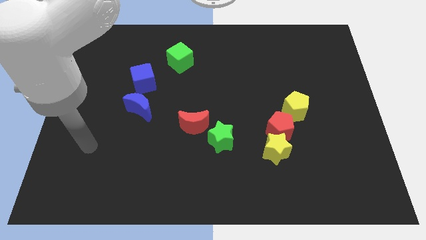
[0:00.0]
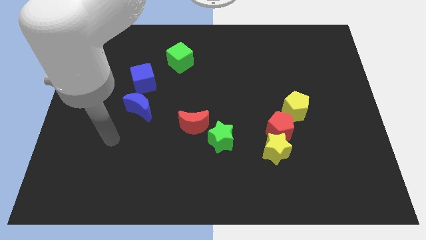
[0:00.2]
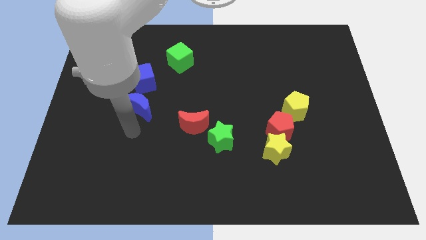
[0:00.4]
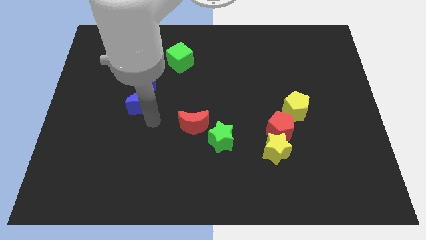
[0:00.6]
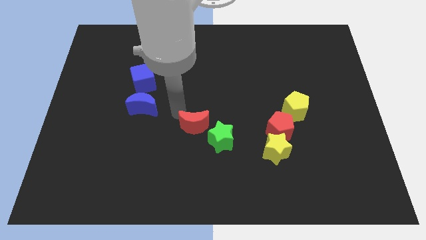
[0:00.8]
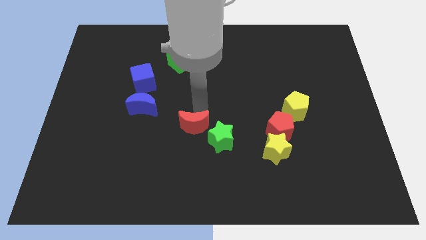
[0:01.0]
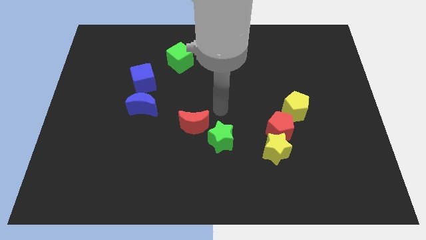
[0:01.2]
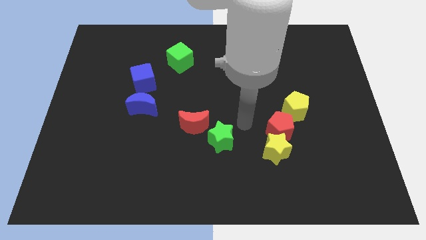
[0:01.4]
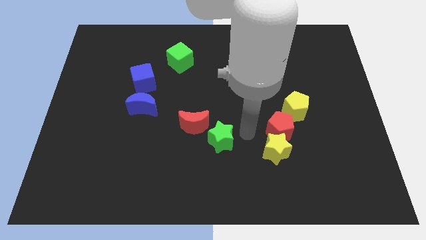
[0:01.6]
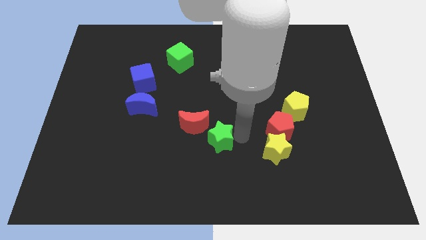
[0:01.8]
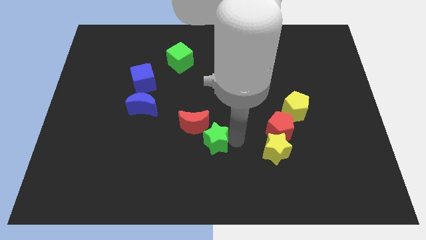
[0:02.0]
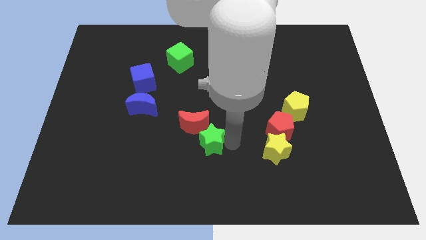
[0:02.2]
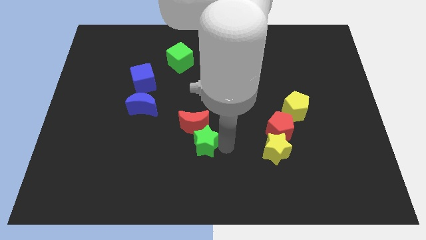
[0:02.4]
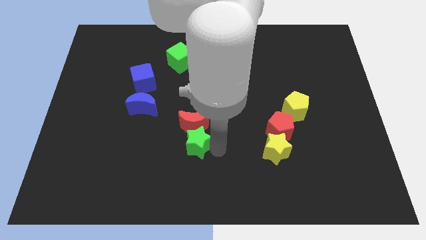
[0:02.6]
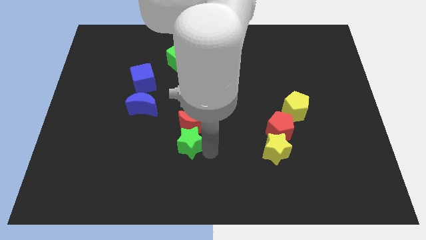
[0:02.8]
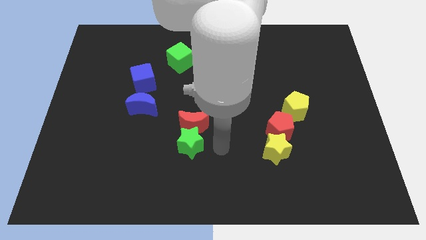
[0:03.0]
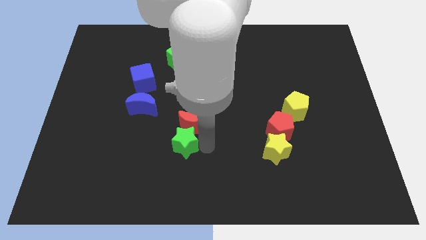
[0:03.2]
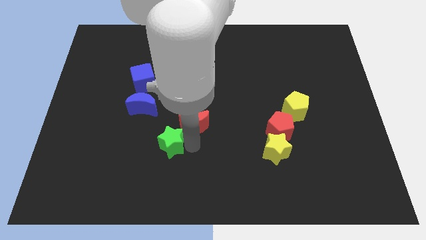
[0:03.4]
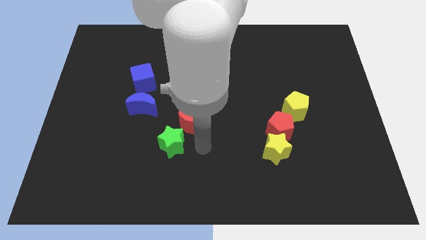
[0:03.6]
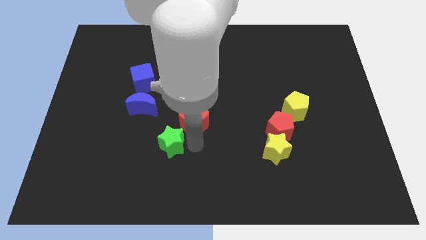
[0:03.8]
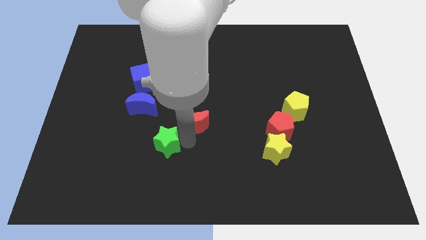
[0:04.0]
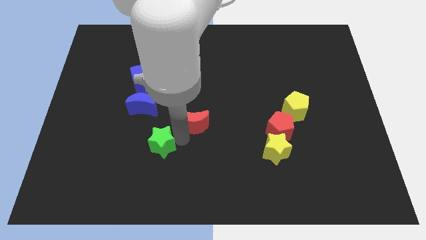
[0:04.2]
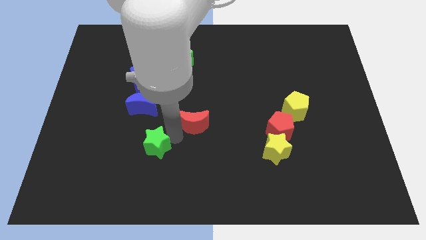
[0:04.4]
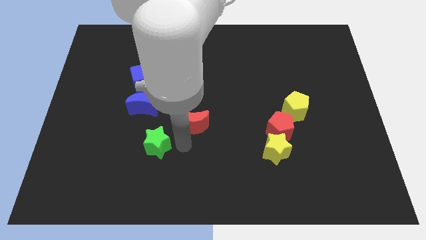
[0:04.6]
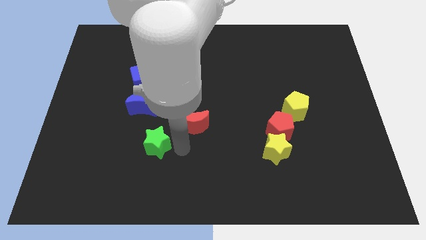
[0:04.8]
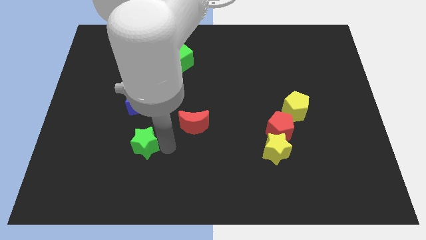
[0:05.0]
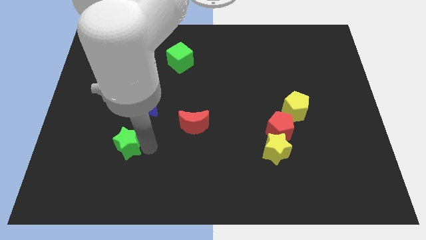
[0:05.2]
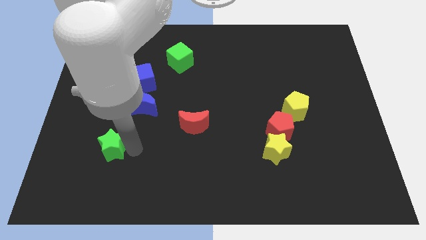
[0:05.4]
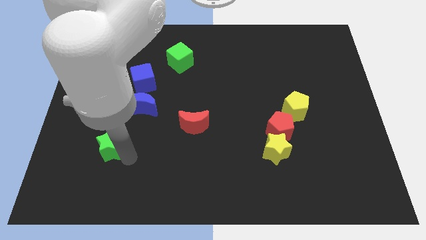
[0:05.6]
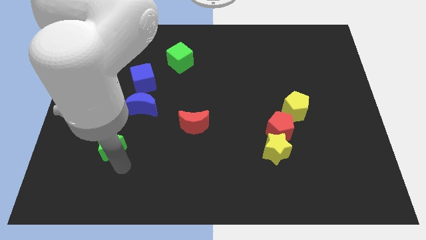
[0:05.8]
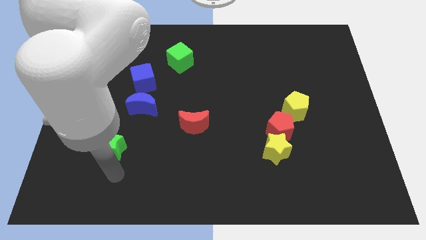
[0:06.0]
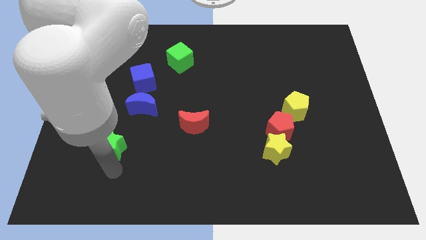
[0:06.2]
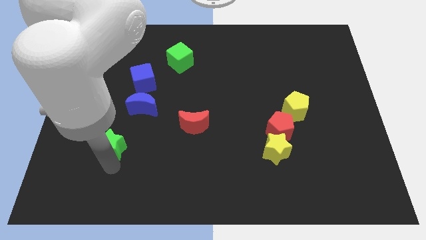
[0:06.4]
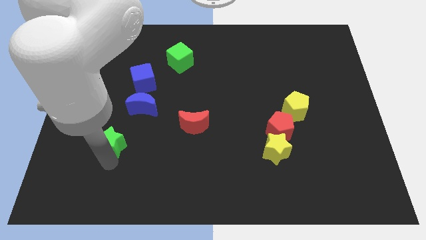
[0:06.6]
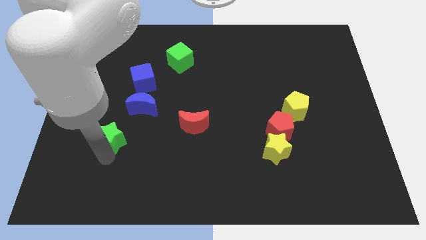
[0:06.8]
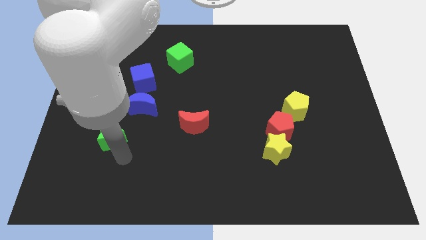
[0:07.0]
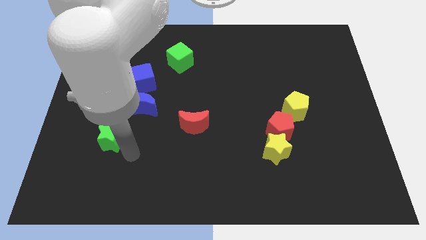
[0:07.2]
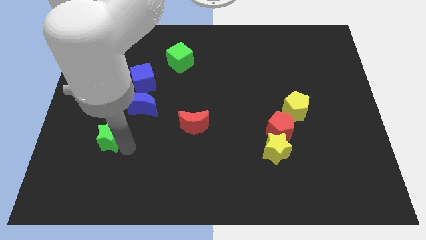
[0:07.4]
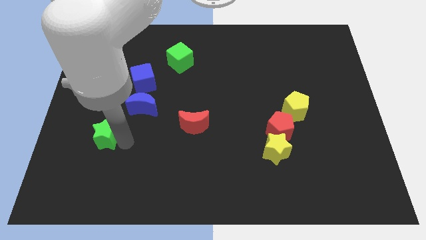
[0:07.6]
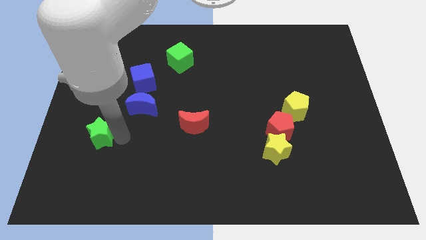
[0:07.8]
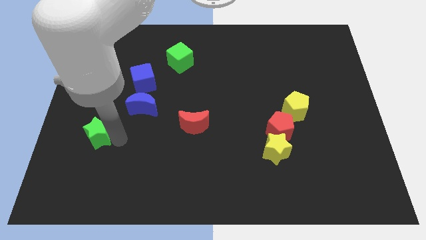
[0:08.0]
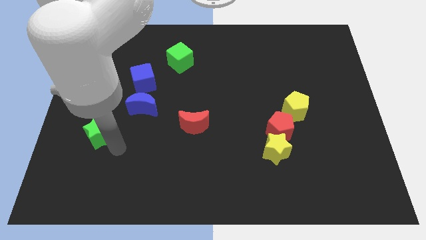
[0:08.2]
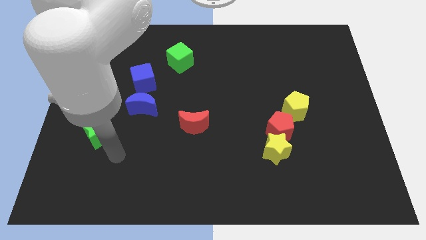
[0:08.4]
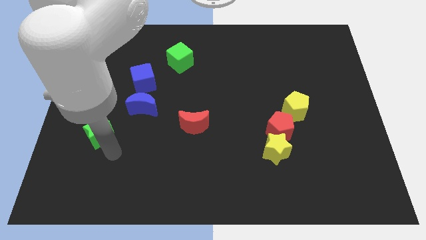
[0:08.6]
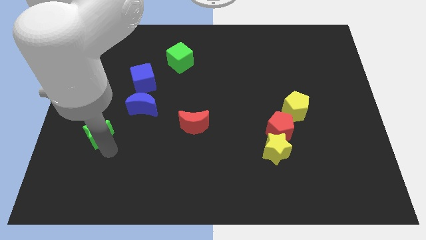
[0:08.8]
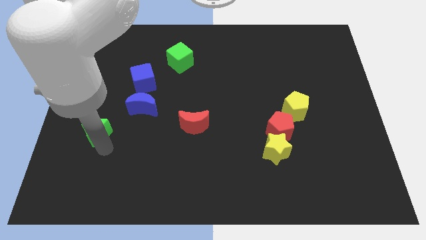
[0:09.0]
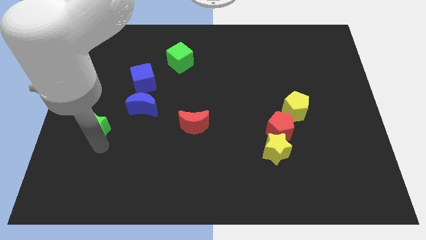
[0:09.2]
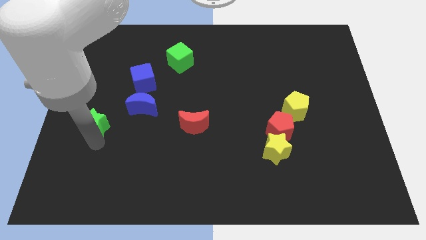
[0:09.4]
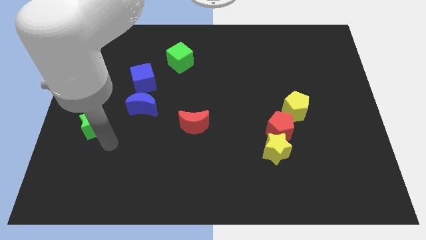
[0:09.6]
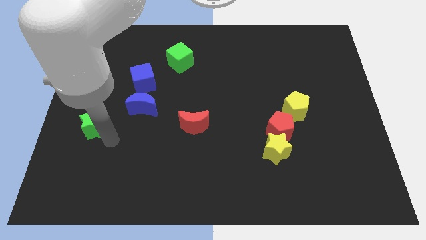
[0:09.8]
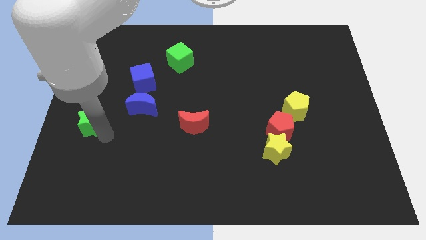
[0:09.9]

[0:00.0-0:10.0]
put the green star to the left side

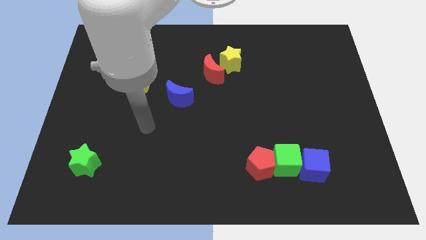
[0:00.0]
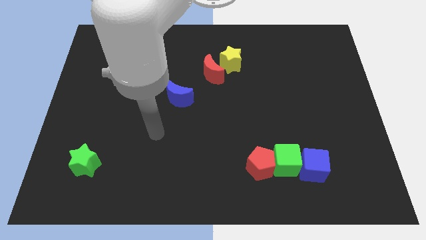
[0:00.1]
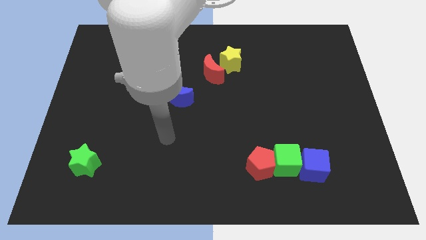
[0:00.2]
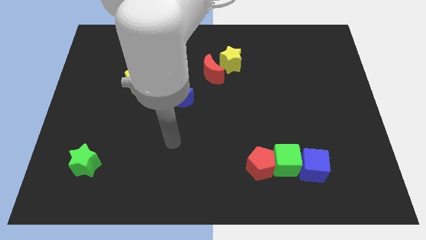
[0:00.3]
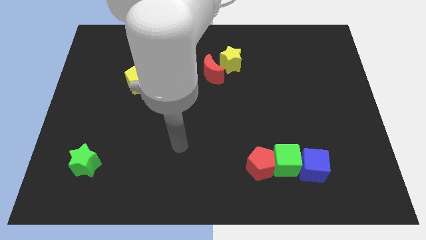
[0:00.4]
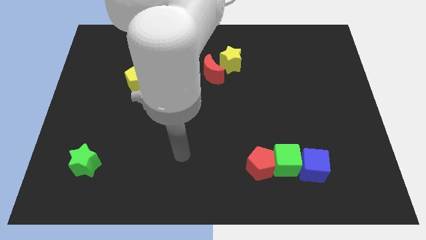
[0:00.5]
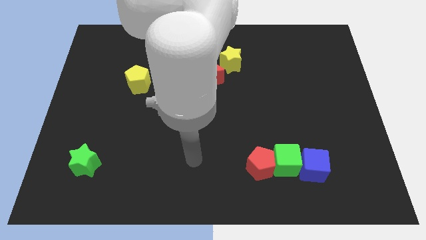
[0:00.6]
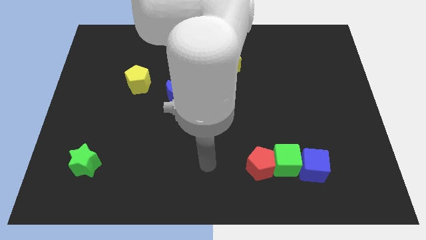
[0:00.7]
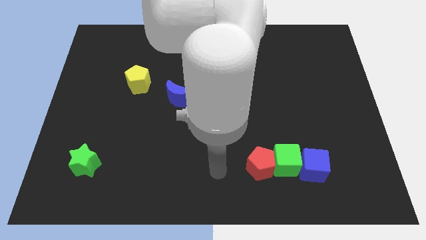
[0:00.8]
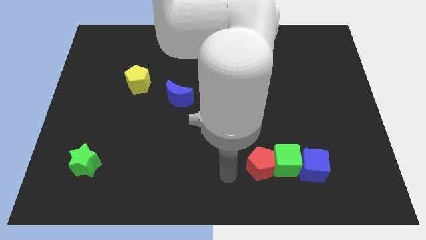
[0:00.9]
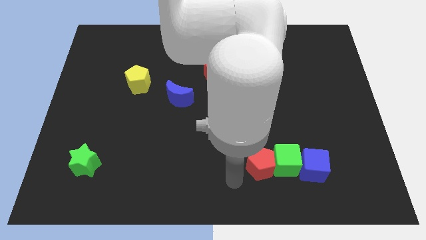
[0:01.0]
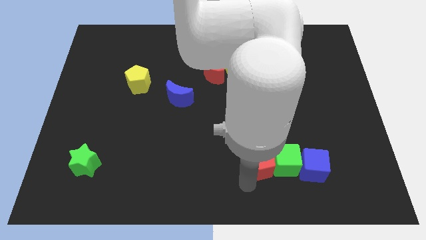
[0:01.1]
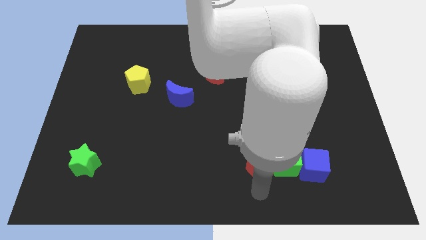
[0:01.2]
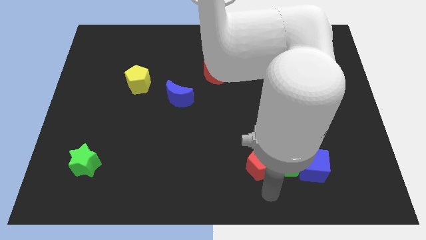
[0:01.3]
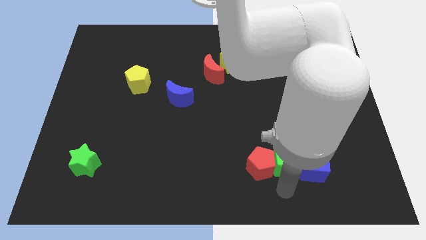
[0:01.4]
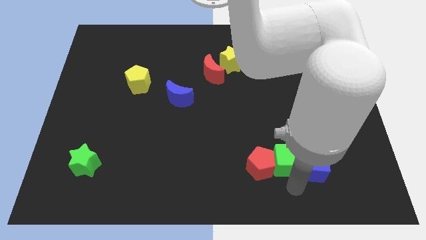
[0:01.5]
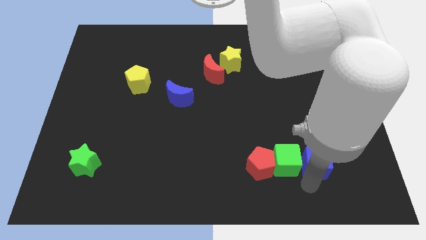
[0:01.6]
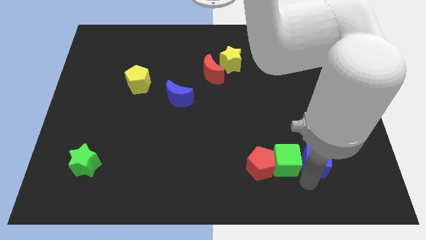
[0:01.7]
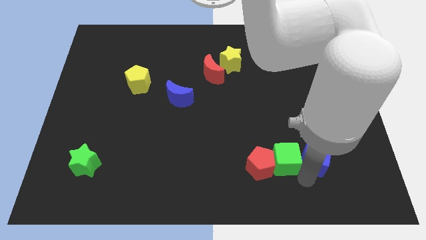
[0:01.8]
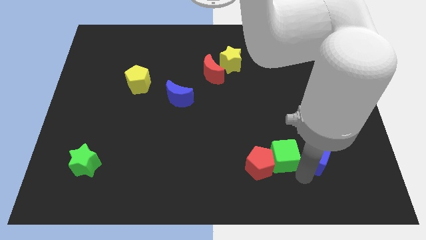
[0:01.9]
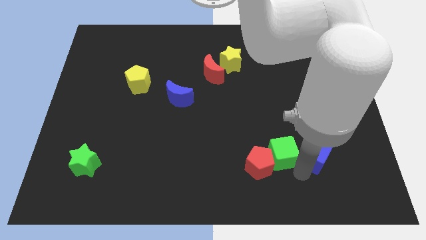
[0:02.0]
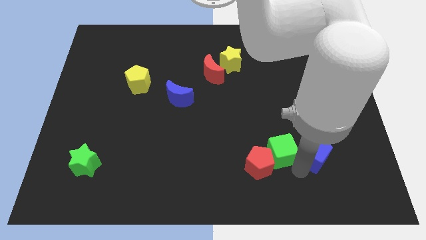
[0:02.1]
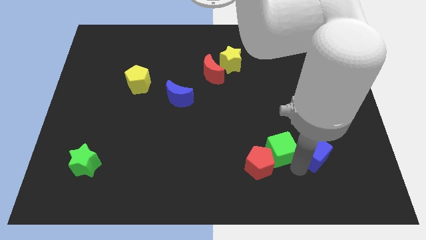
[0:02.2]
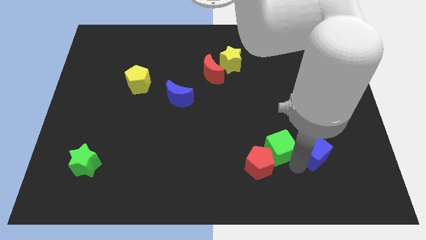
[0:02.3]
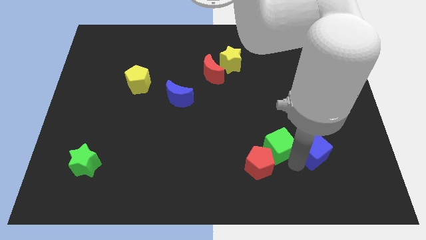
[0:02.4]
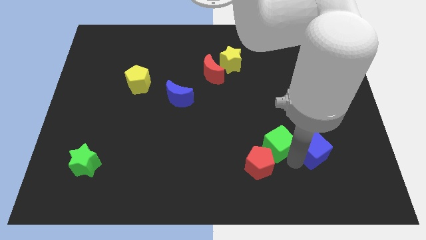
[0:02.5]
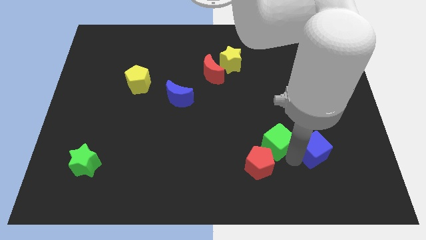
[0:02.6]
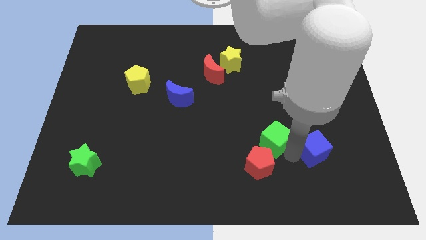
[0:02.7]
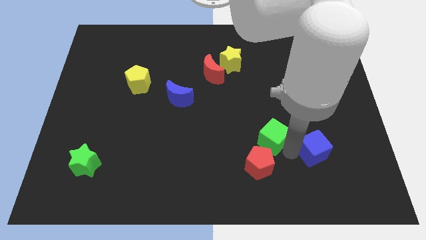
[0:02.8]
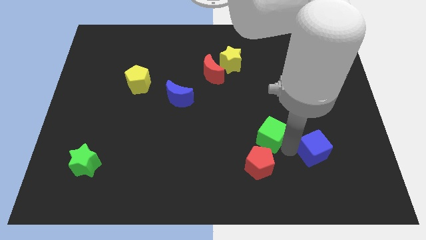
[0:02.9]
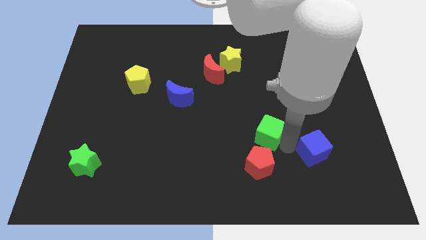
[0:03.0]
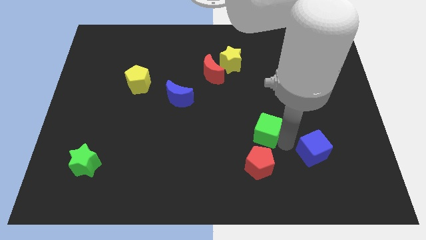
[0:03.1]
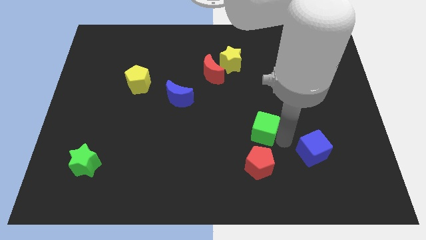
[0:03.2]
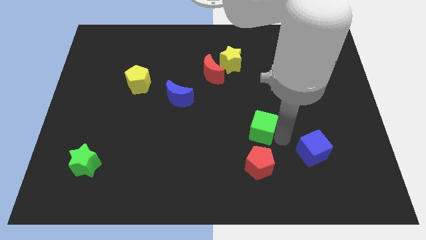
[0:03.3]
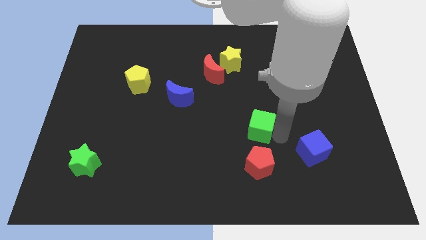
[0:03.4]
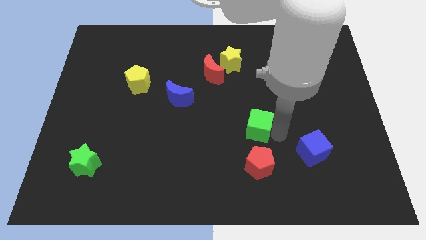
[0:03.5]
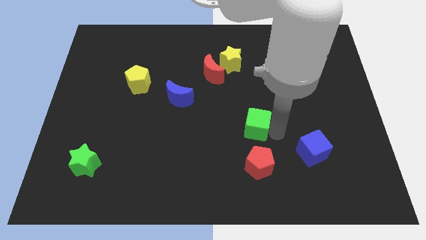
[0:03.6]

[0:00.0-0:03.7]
put the green cube to the center of the board
